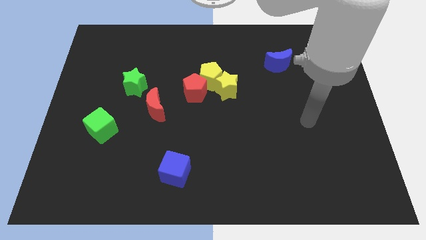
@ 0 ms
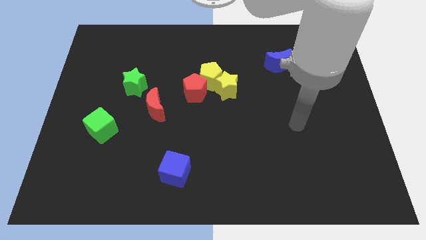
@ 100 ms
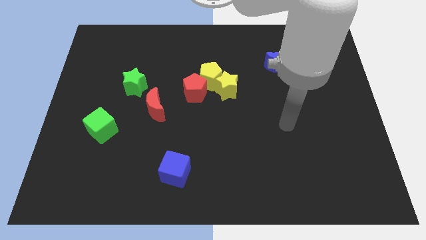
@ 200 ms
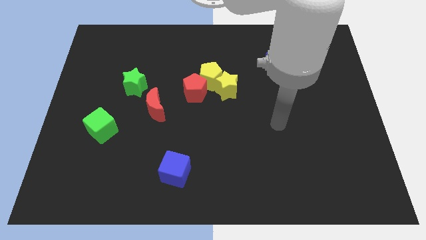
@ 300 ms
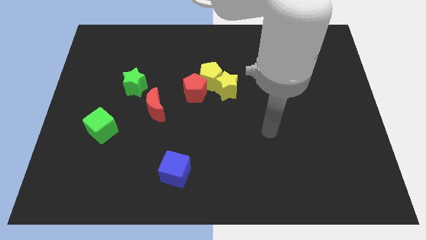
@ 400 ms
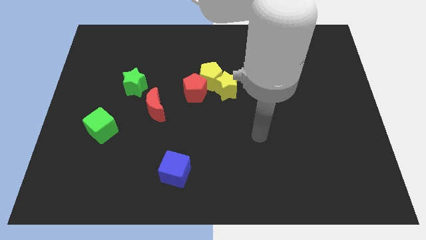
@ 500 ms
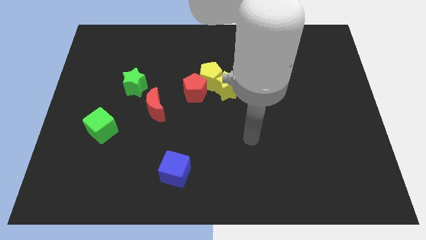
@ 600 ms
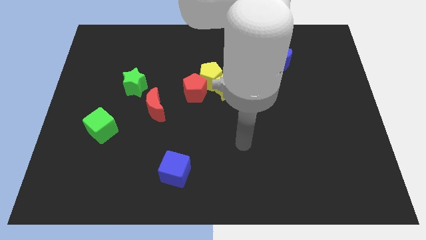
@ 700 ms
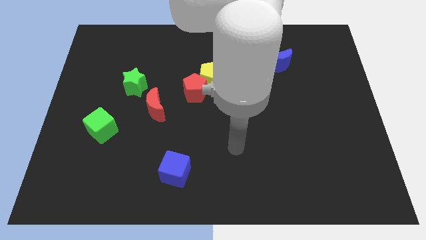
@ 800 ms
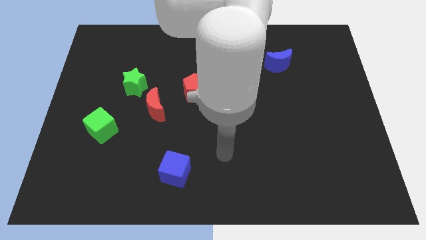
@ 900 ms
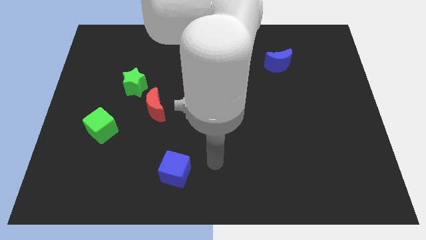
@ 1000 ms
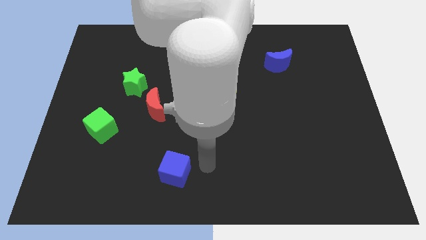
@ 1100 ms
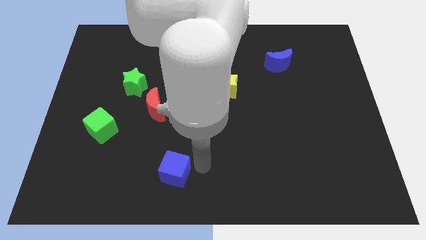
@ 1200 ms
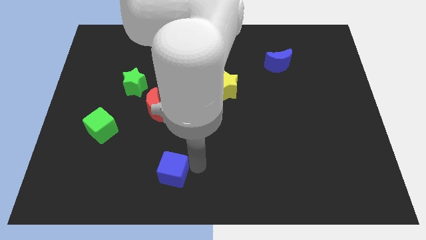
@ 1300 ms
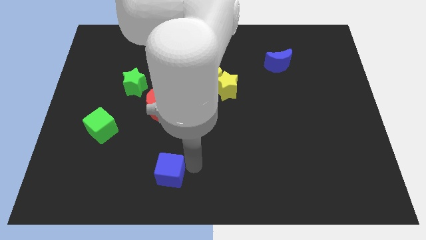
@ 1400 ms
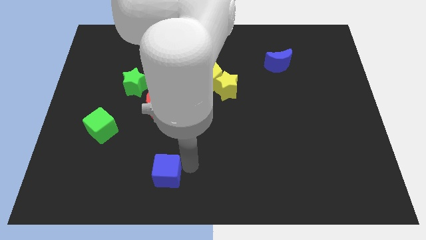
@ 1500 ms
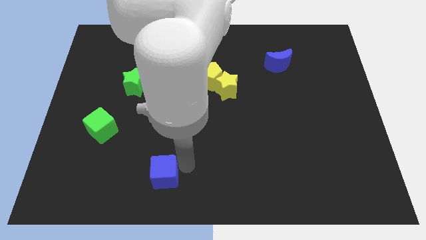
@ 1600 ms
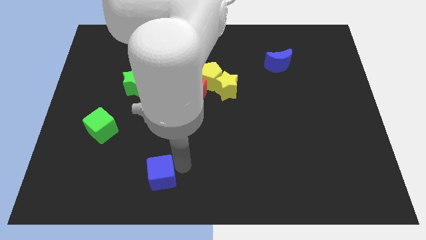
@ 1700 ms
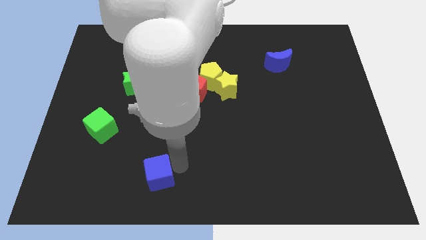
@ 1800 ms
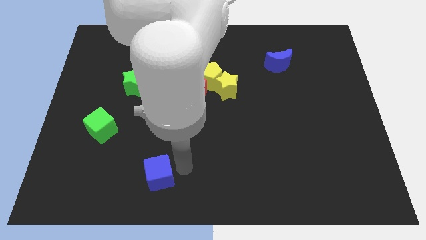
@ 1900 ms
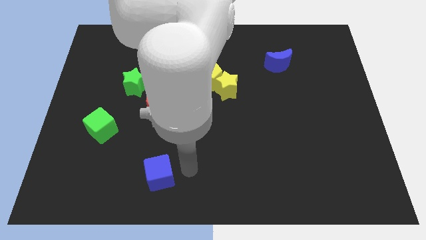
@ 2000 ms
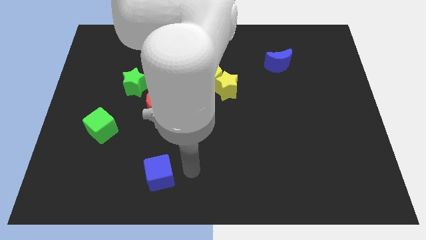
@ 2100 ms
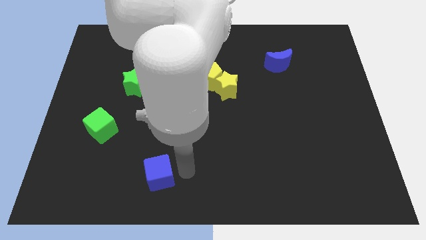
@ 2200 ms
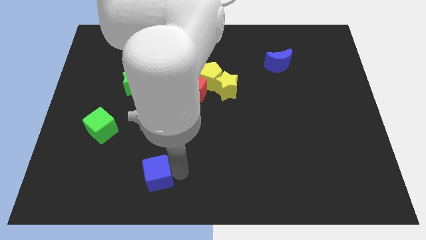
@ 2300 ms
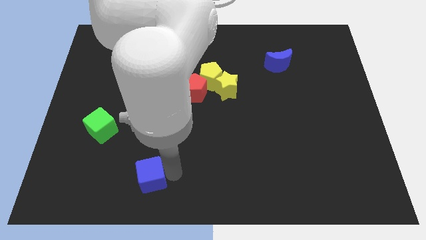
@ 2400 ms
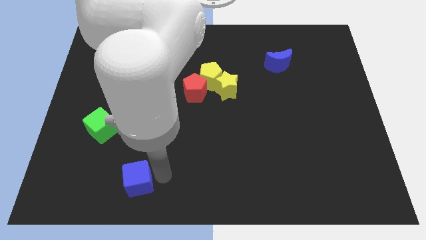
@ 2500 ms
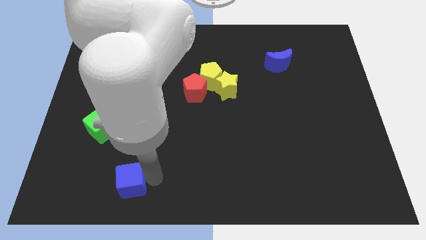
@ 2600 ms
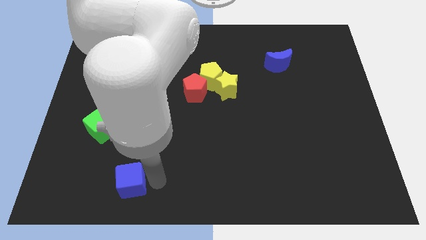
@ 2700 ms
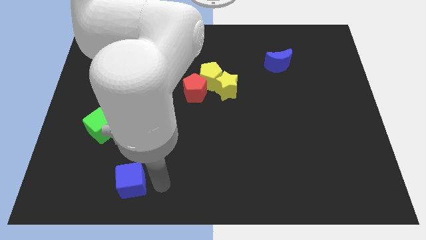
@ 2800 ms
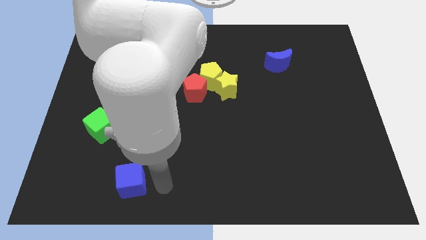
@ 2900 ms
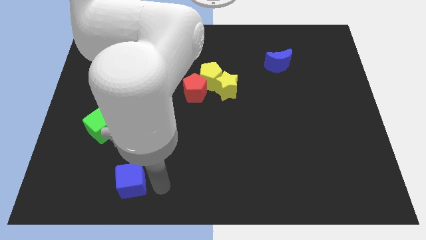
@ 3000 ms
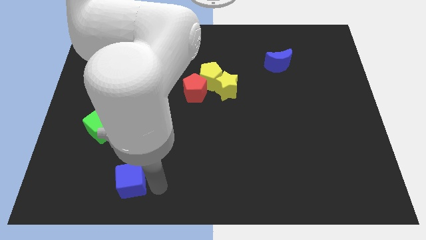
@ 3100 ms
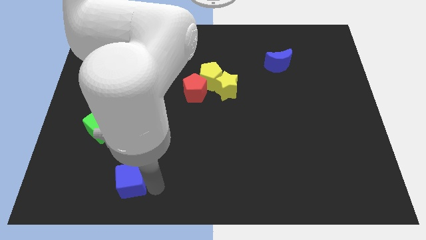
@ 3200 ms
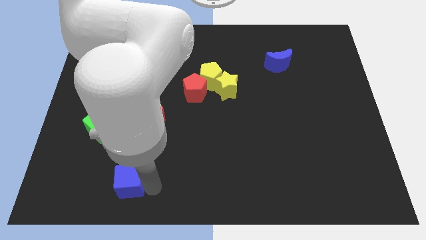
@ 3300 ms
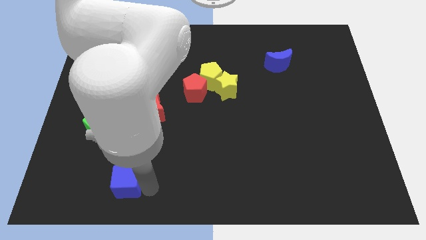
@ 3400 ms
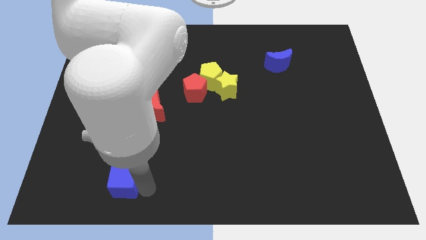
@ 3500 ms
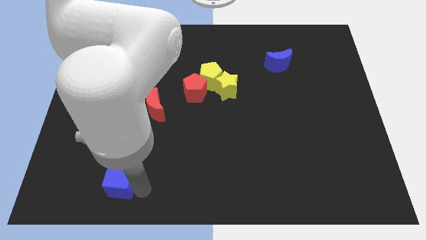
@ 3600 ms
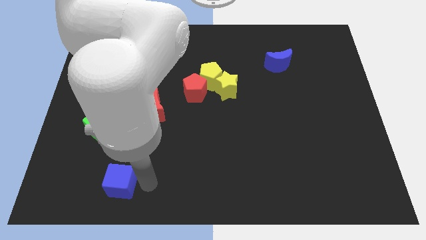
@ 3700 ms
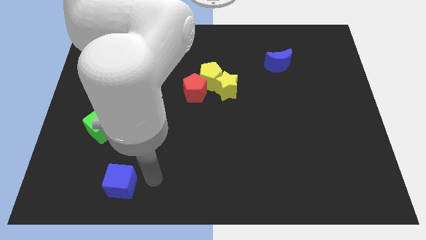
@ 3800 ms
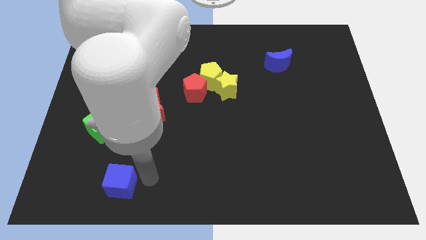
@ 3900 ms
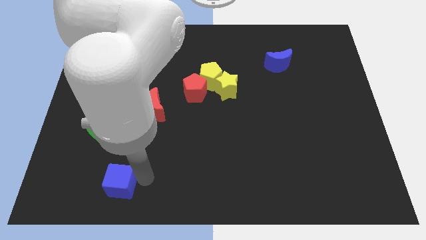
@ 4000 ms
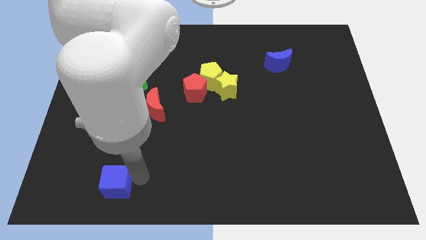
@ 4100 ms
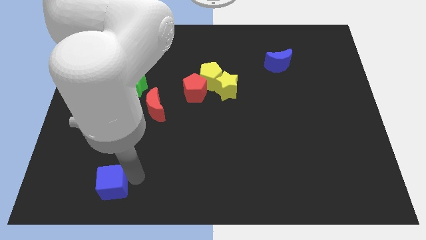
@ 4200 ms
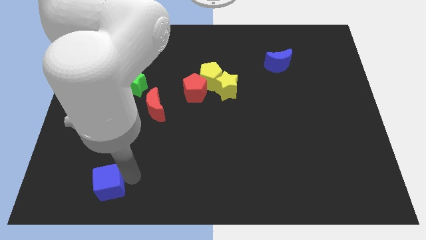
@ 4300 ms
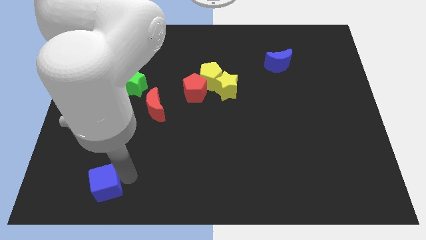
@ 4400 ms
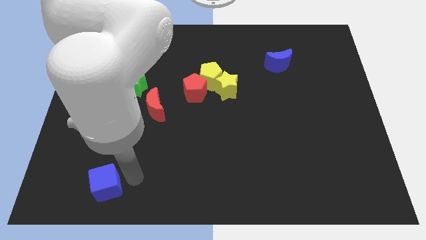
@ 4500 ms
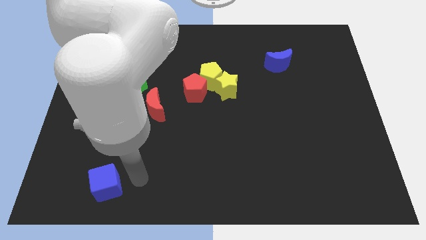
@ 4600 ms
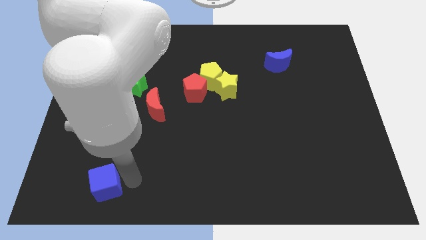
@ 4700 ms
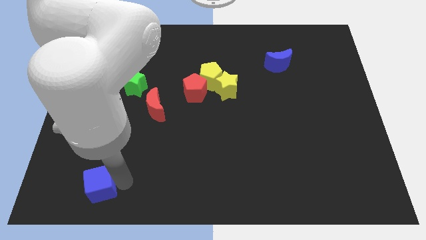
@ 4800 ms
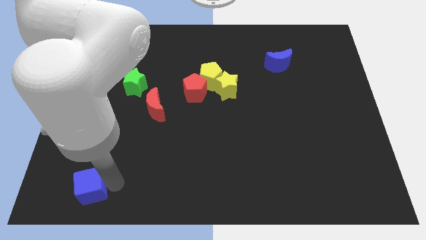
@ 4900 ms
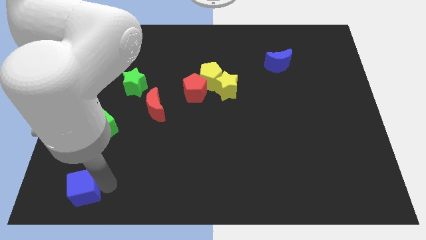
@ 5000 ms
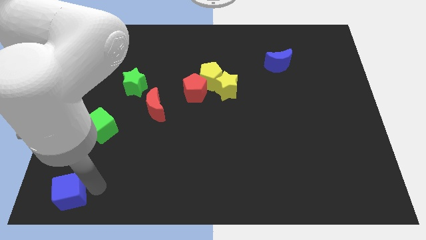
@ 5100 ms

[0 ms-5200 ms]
put the blue cube to the bottom left

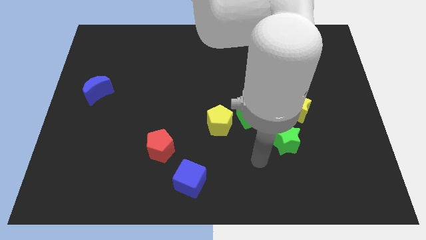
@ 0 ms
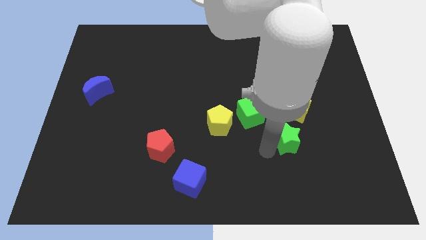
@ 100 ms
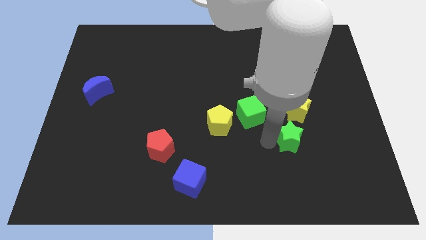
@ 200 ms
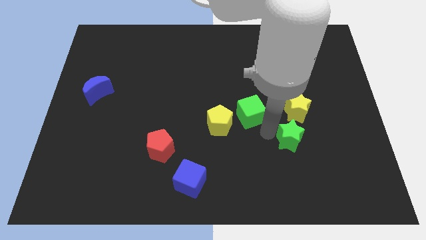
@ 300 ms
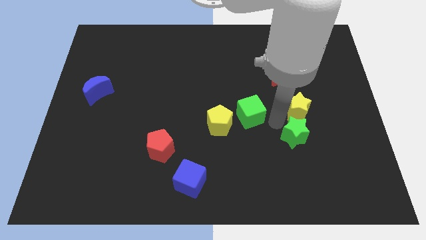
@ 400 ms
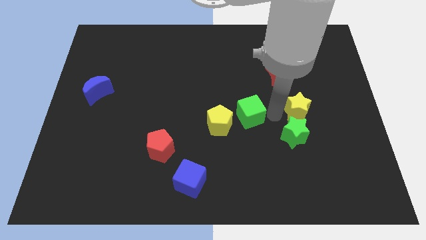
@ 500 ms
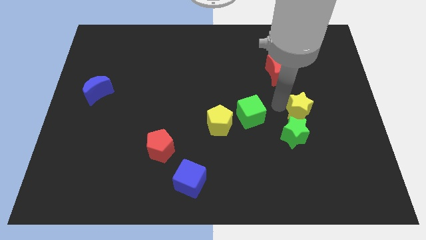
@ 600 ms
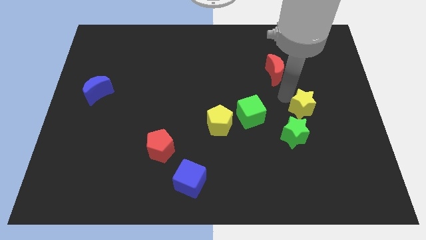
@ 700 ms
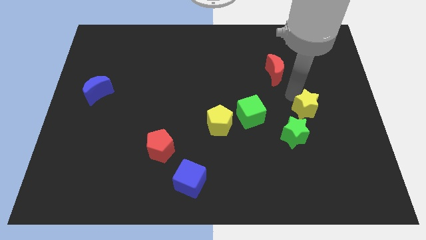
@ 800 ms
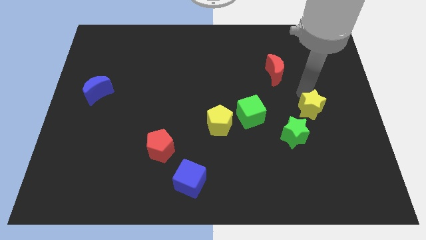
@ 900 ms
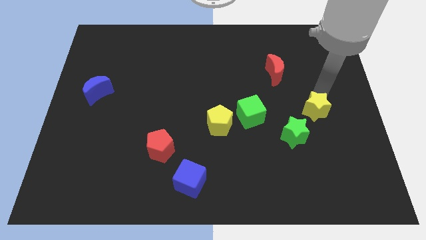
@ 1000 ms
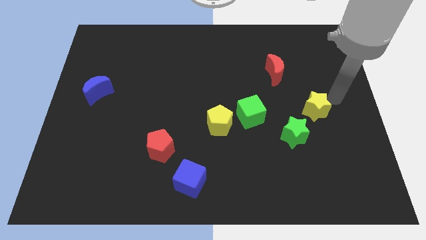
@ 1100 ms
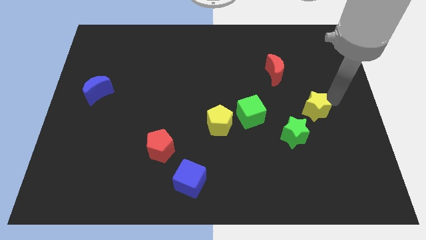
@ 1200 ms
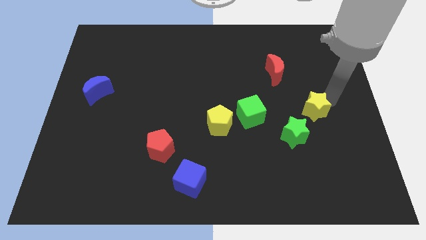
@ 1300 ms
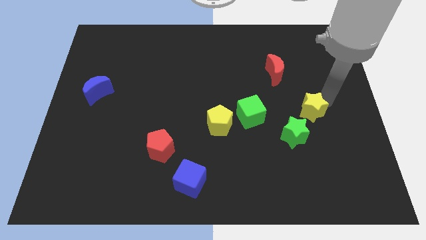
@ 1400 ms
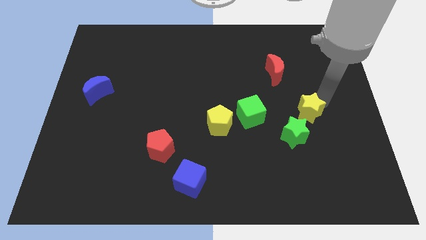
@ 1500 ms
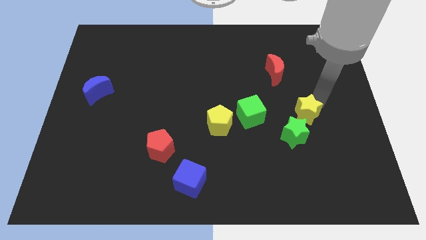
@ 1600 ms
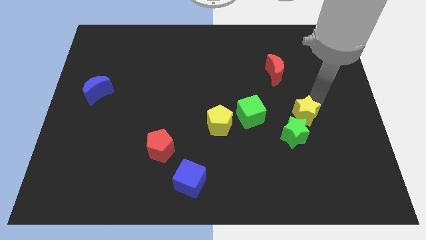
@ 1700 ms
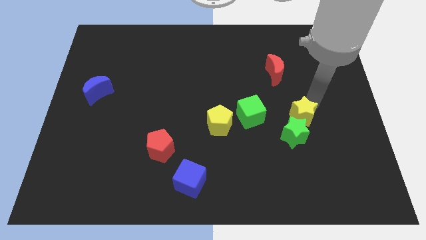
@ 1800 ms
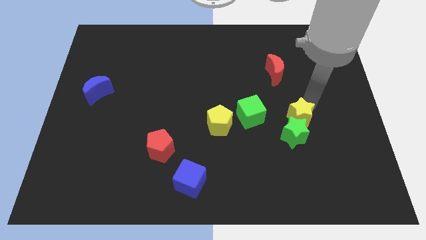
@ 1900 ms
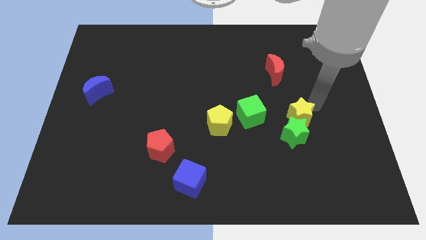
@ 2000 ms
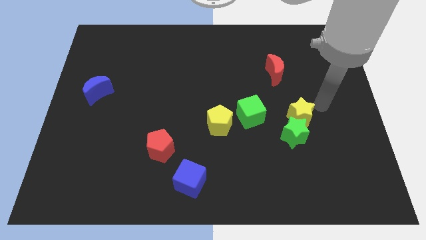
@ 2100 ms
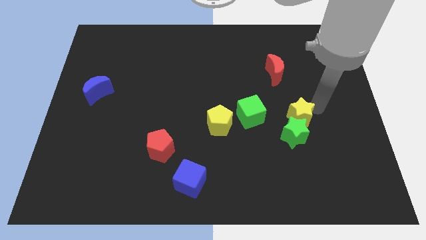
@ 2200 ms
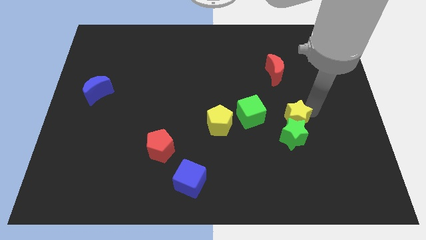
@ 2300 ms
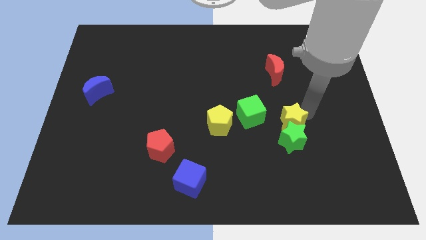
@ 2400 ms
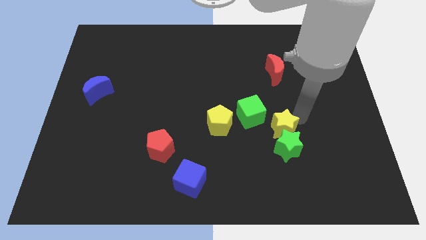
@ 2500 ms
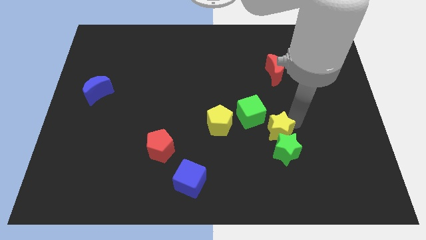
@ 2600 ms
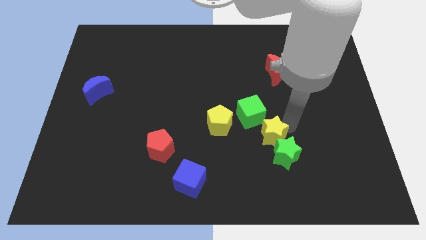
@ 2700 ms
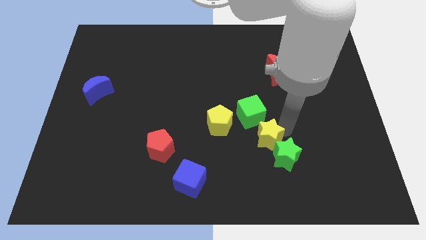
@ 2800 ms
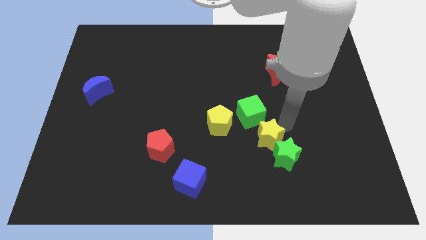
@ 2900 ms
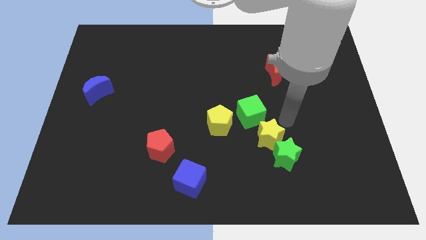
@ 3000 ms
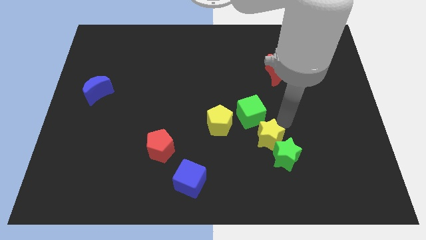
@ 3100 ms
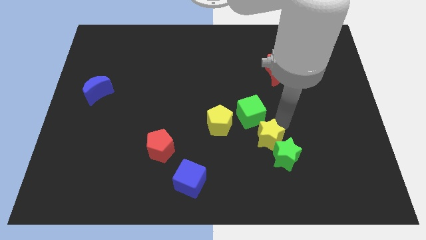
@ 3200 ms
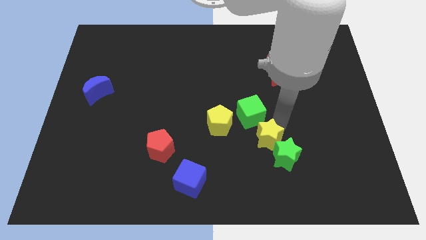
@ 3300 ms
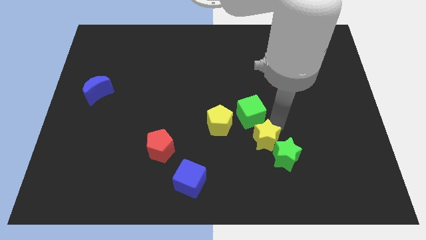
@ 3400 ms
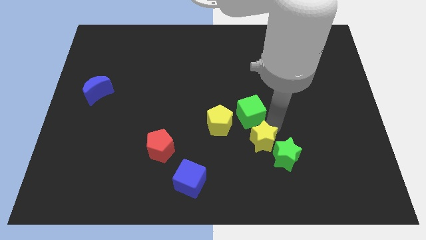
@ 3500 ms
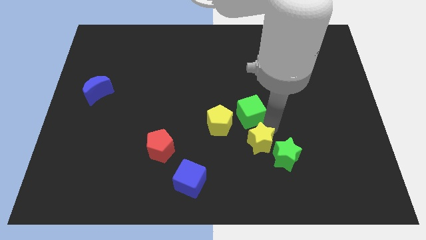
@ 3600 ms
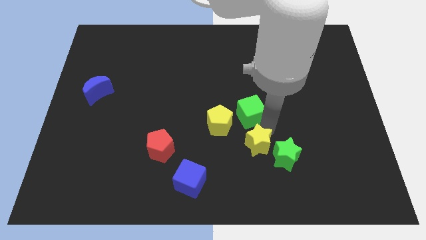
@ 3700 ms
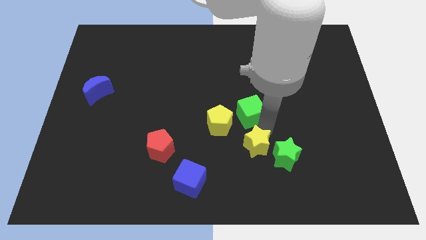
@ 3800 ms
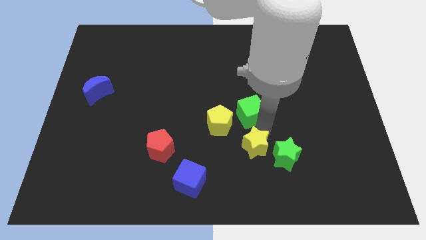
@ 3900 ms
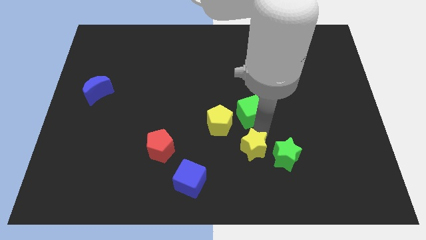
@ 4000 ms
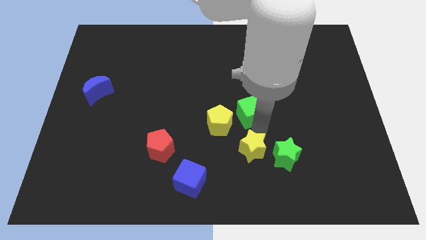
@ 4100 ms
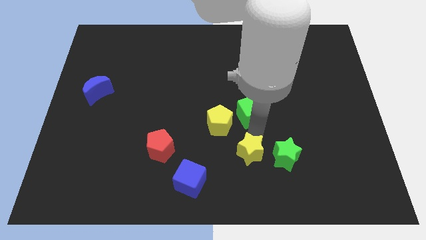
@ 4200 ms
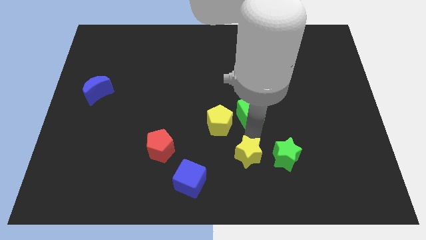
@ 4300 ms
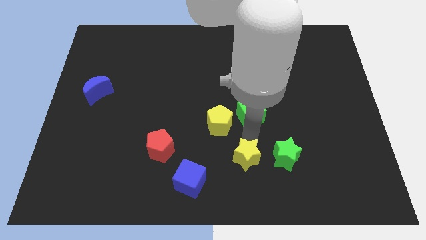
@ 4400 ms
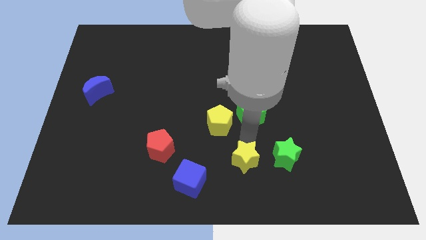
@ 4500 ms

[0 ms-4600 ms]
move the yellow star to the bottom side
